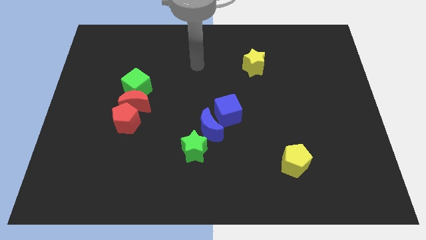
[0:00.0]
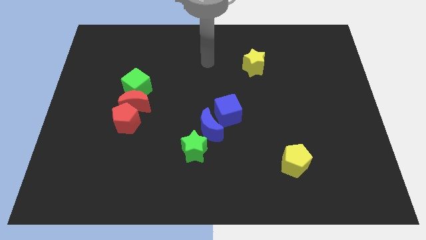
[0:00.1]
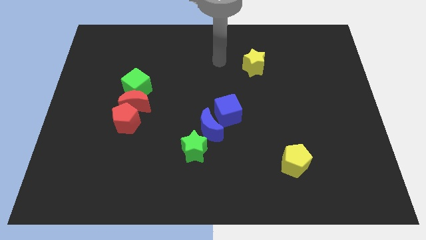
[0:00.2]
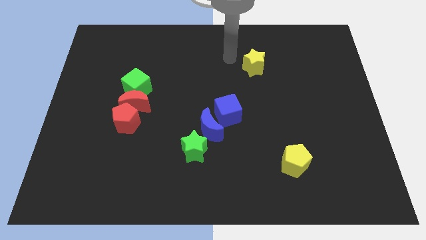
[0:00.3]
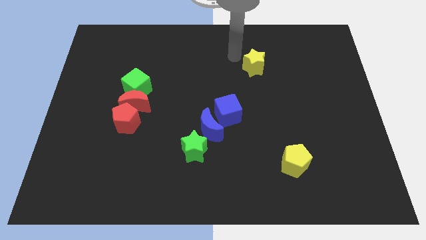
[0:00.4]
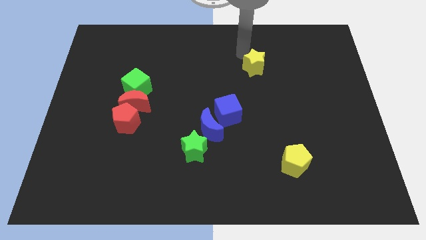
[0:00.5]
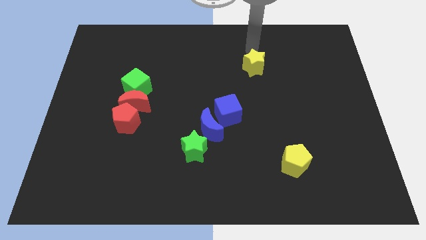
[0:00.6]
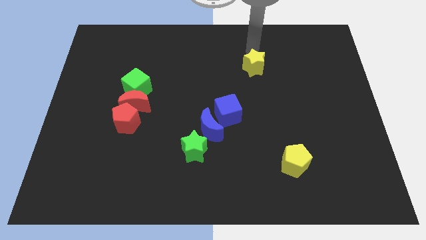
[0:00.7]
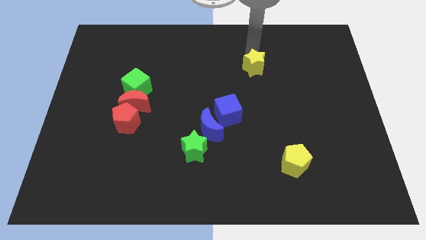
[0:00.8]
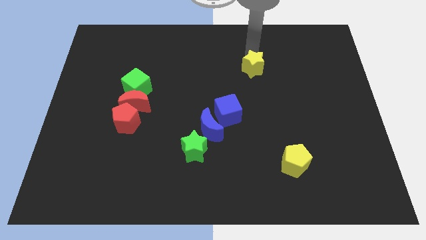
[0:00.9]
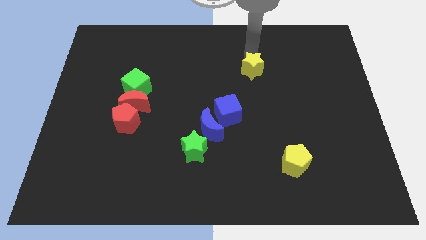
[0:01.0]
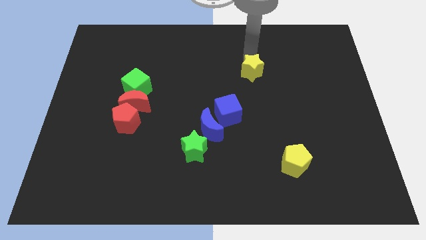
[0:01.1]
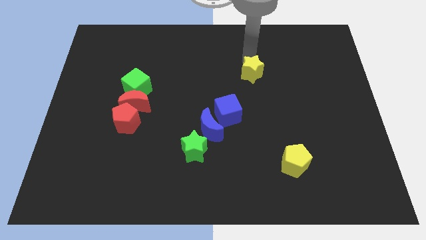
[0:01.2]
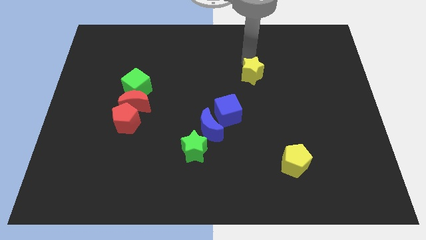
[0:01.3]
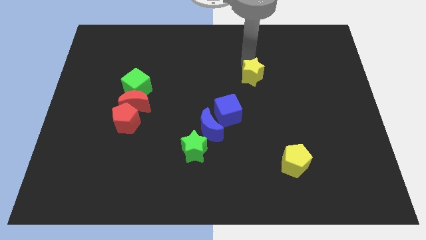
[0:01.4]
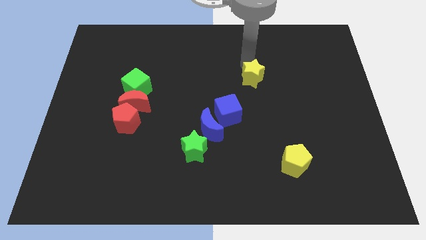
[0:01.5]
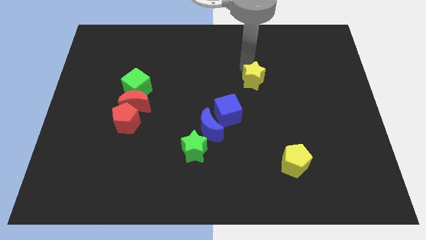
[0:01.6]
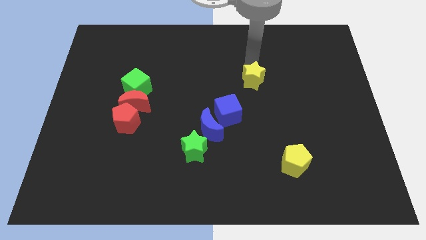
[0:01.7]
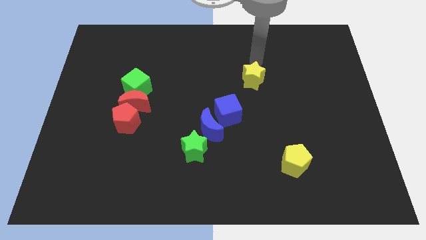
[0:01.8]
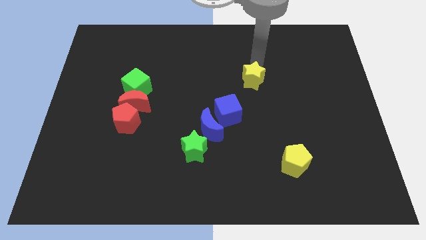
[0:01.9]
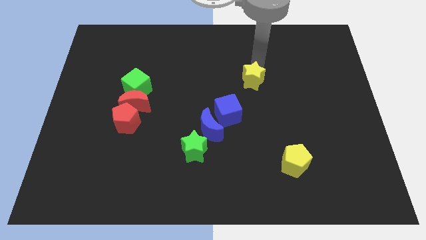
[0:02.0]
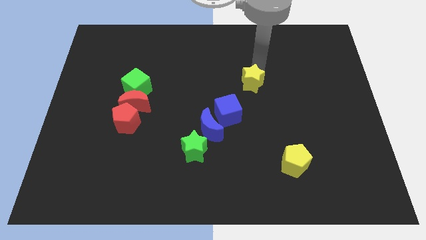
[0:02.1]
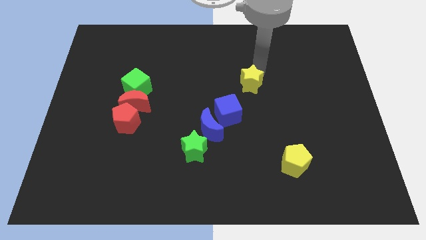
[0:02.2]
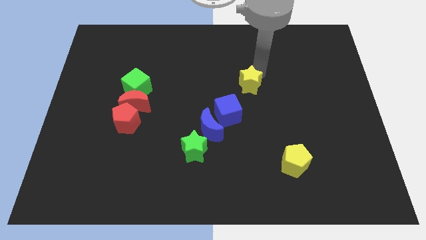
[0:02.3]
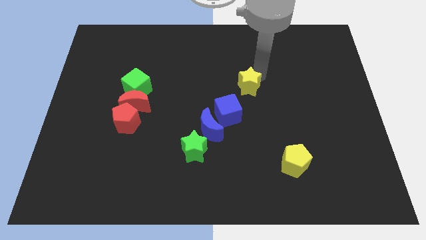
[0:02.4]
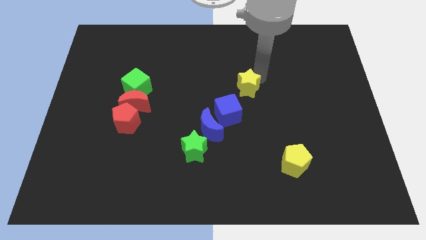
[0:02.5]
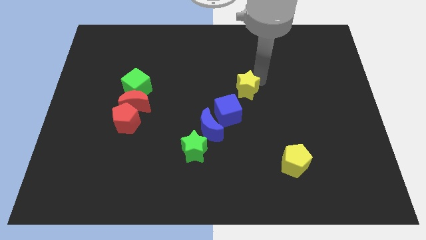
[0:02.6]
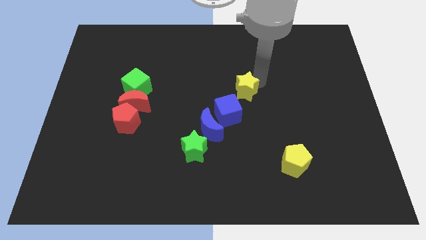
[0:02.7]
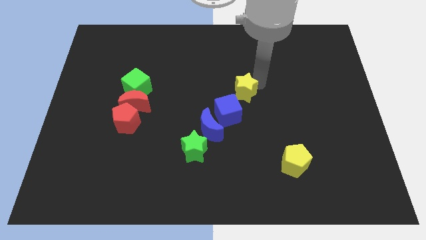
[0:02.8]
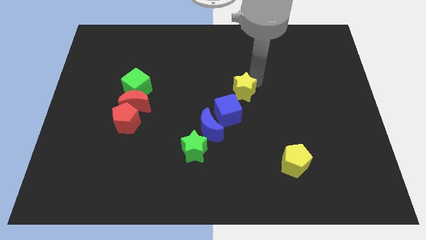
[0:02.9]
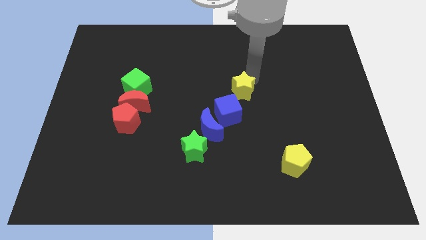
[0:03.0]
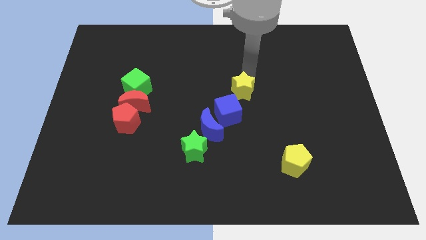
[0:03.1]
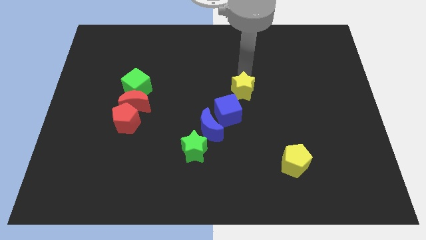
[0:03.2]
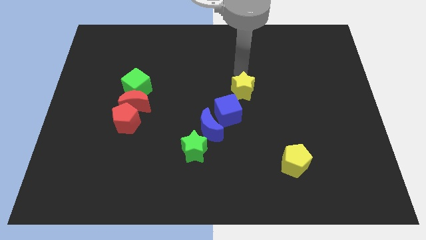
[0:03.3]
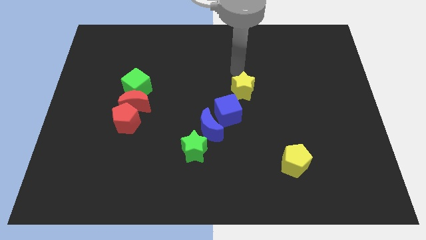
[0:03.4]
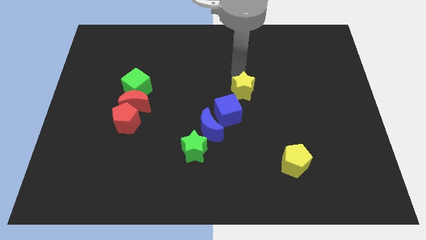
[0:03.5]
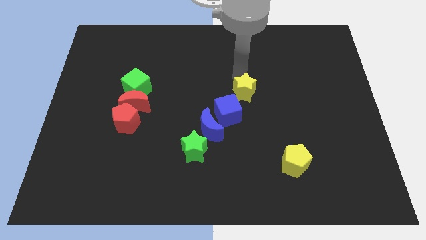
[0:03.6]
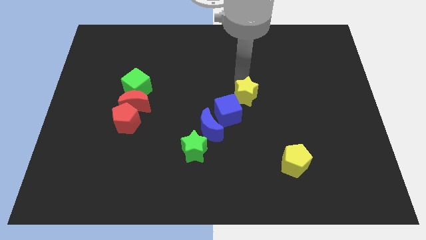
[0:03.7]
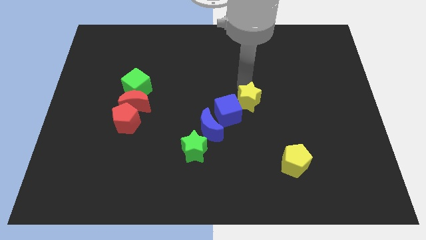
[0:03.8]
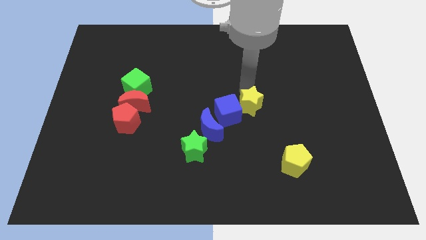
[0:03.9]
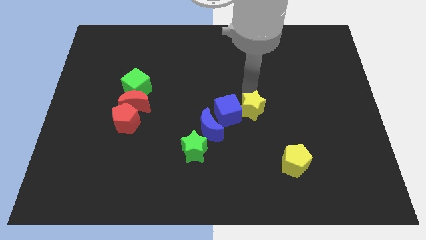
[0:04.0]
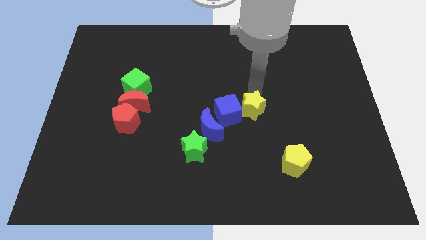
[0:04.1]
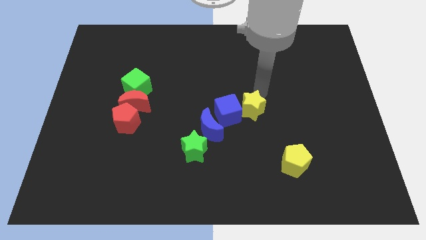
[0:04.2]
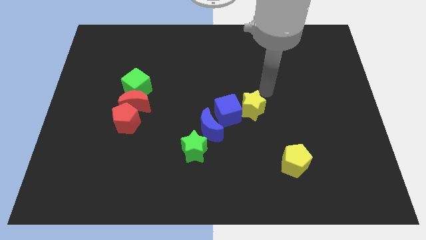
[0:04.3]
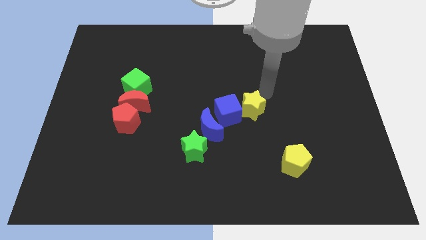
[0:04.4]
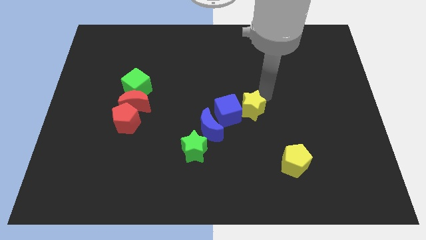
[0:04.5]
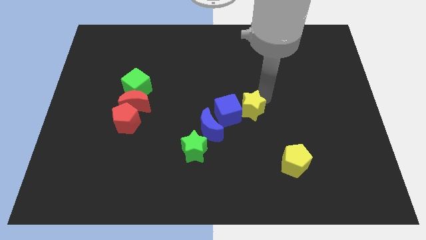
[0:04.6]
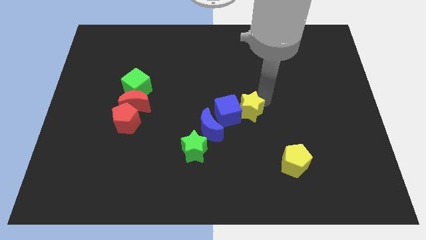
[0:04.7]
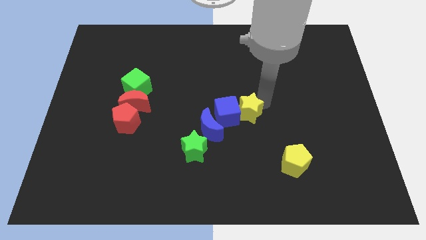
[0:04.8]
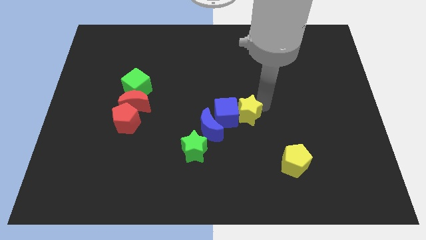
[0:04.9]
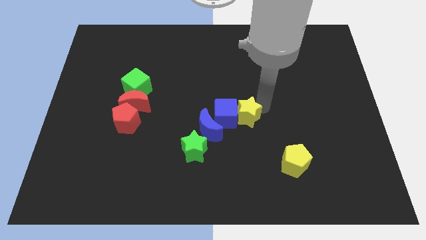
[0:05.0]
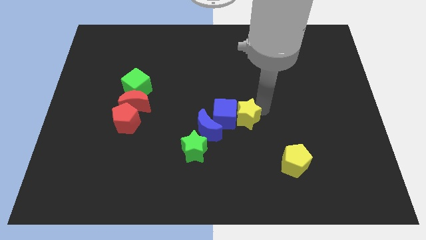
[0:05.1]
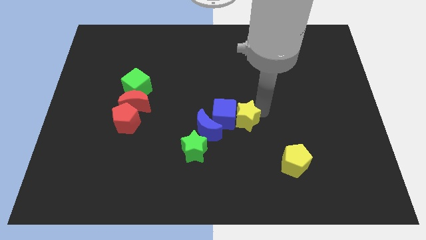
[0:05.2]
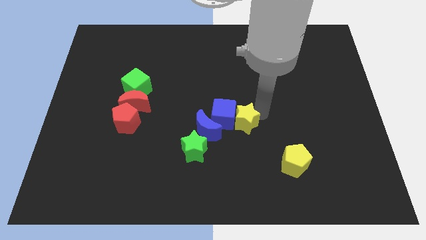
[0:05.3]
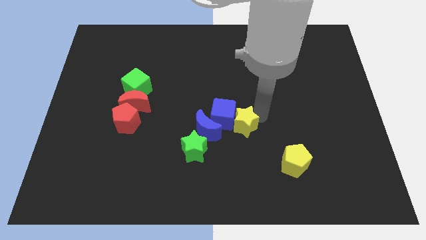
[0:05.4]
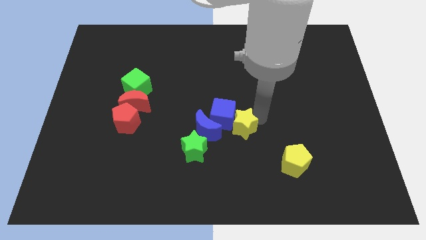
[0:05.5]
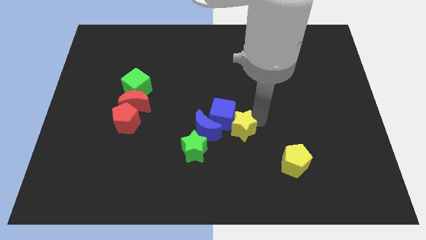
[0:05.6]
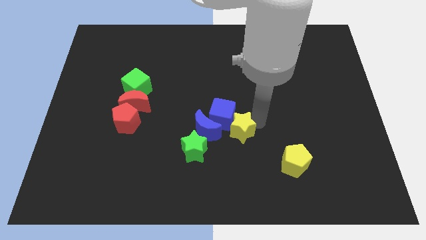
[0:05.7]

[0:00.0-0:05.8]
put the yellow star to the bottom of the blue cube

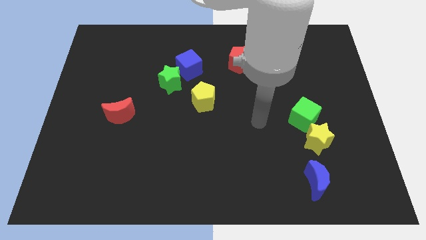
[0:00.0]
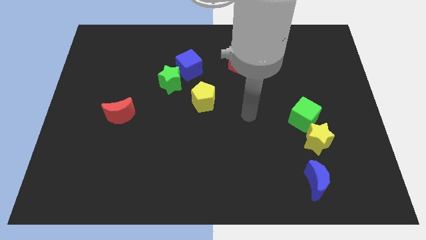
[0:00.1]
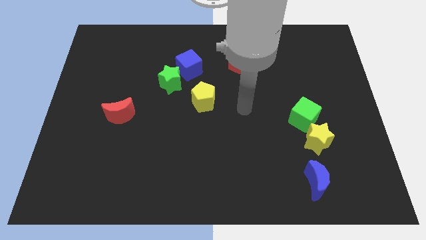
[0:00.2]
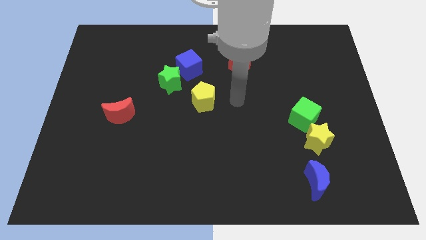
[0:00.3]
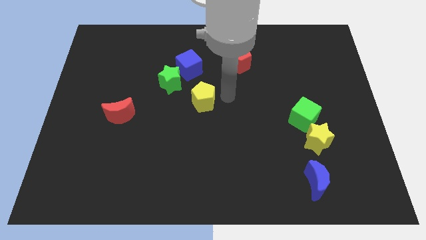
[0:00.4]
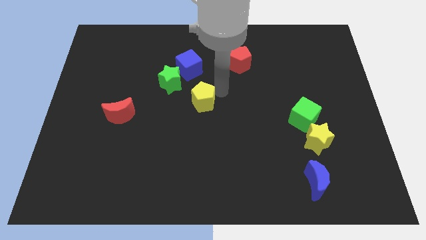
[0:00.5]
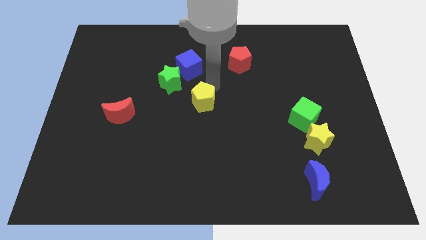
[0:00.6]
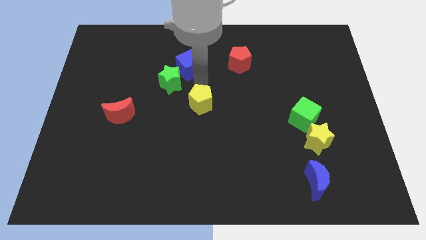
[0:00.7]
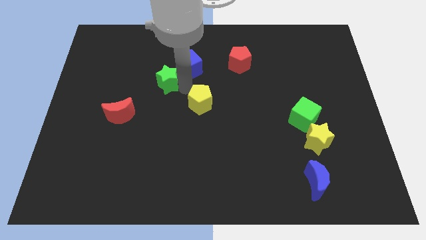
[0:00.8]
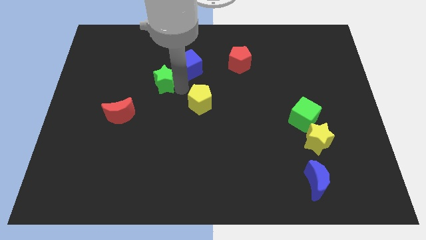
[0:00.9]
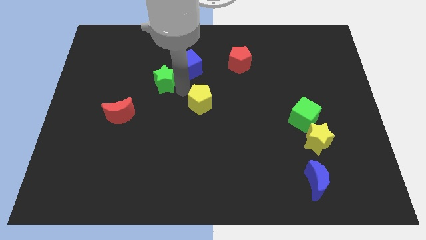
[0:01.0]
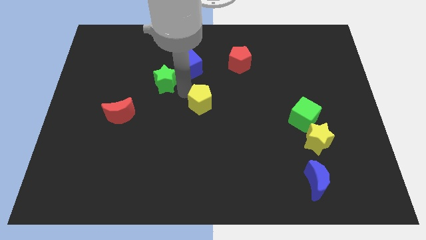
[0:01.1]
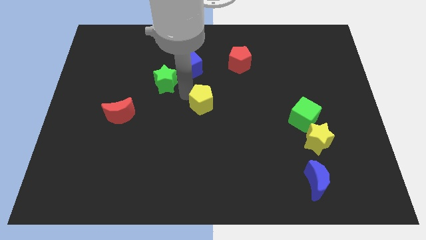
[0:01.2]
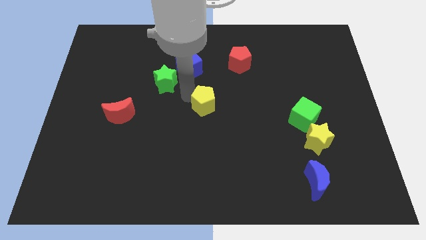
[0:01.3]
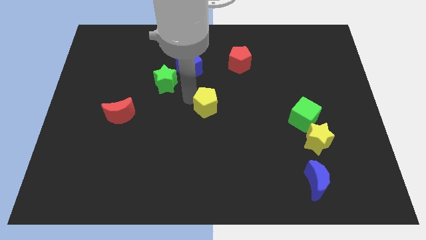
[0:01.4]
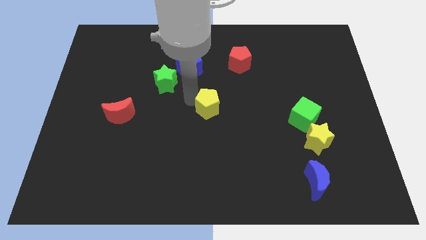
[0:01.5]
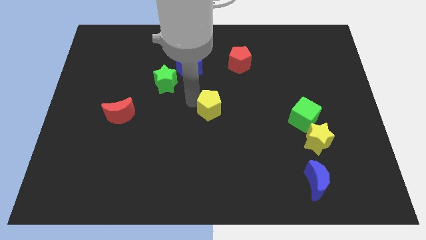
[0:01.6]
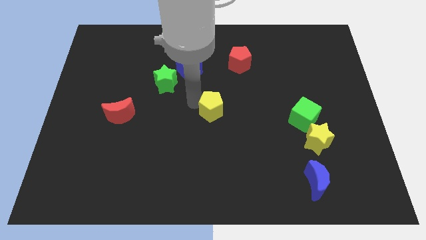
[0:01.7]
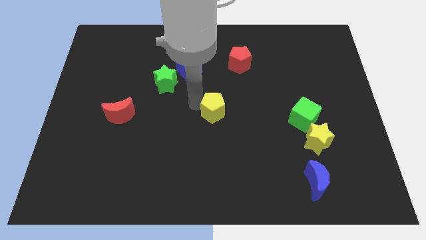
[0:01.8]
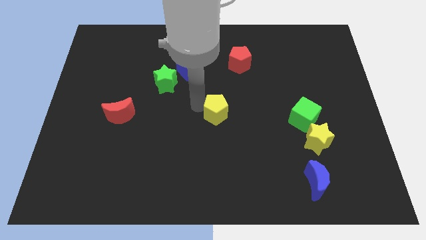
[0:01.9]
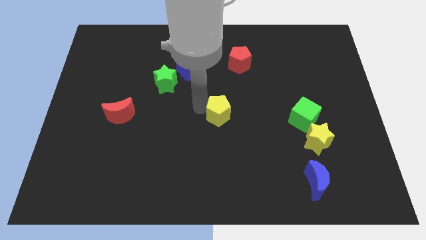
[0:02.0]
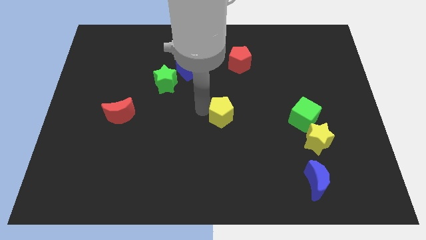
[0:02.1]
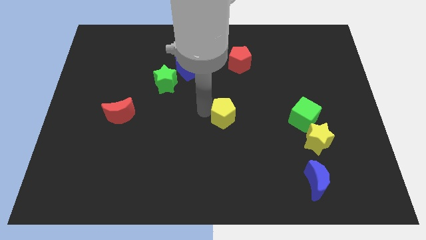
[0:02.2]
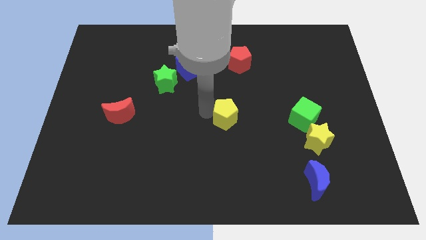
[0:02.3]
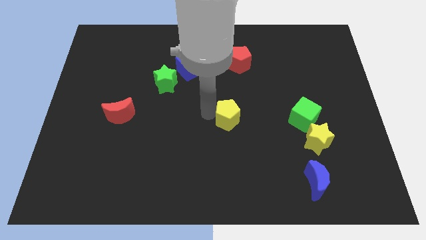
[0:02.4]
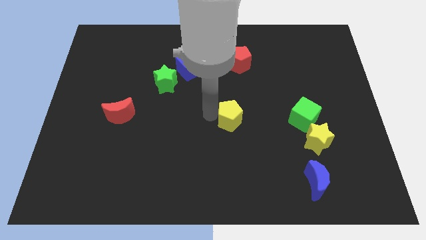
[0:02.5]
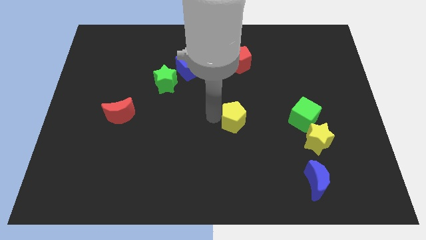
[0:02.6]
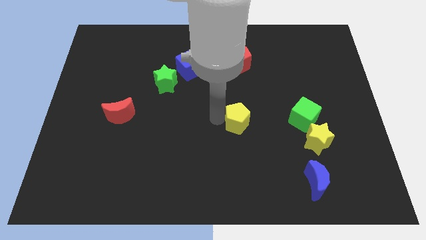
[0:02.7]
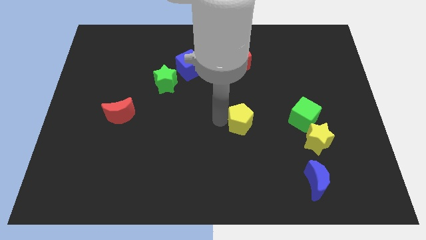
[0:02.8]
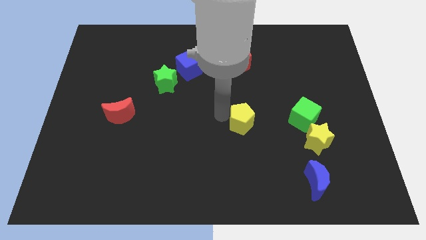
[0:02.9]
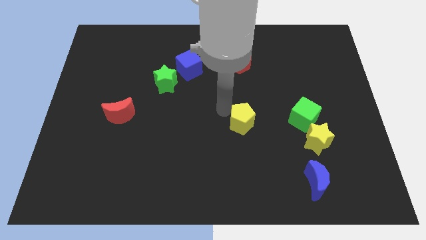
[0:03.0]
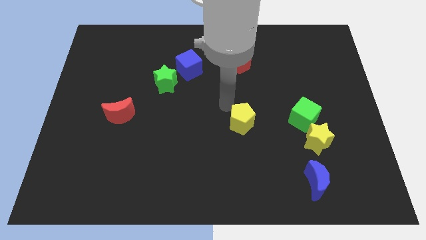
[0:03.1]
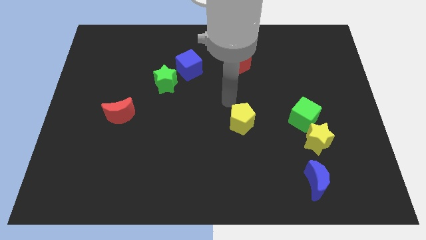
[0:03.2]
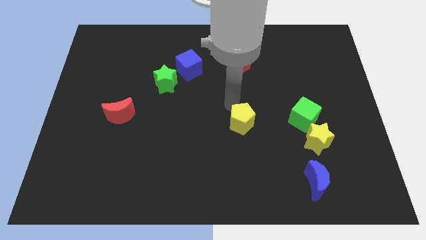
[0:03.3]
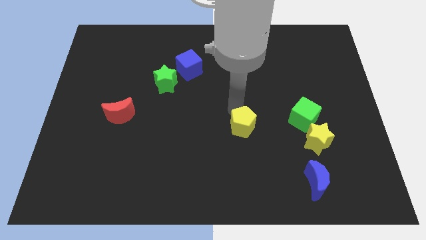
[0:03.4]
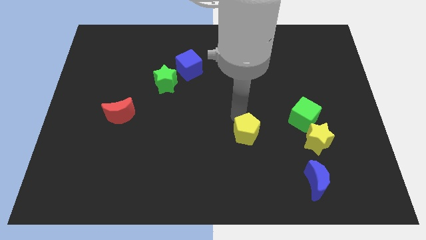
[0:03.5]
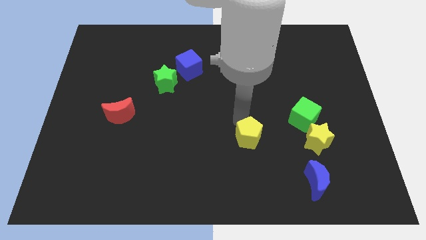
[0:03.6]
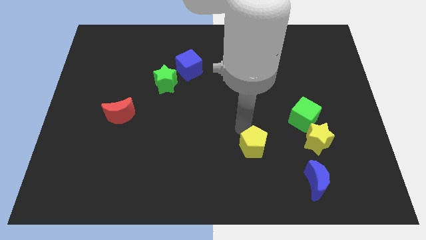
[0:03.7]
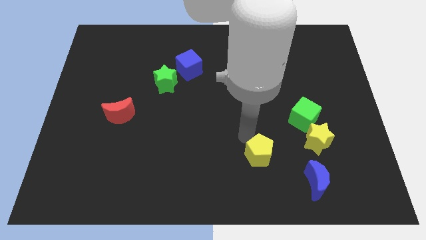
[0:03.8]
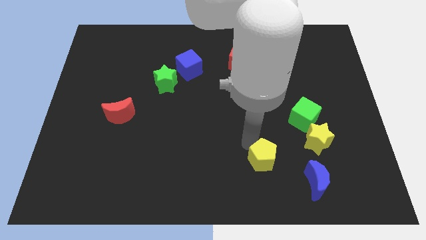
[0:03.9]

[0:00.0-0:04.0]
move the yellow pentagon diagonally up and to the left of the blue moon
